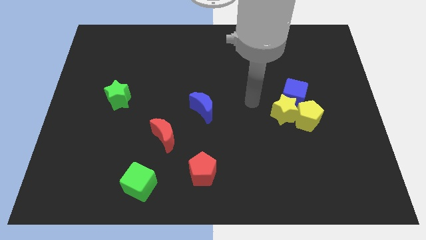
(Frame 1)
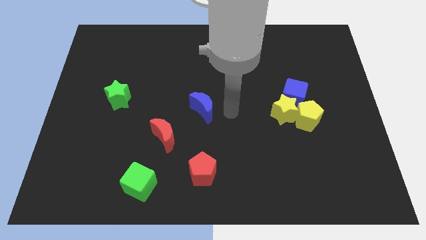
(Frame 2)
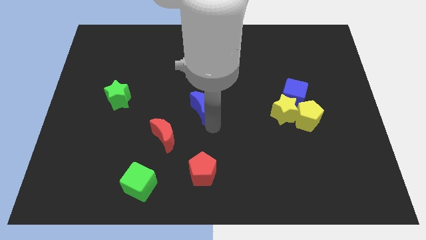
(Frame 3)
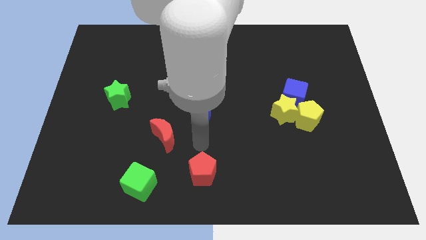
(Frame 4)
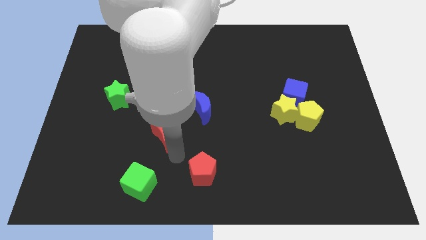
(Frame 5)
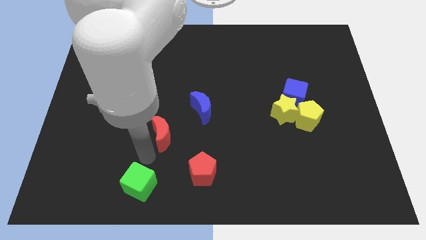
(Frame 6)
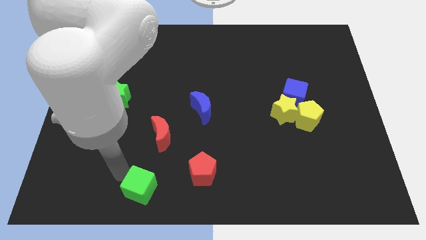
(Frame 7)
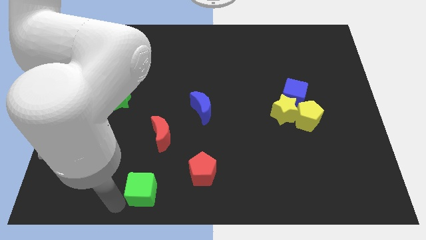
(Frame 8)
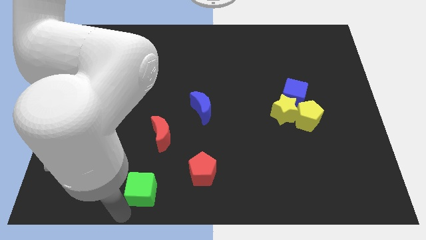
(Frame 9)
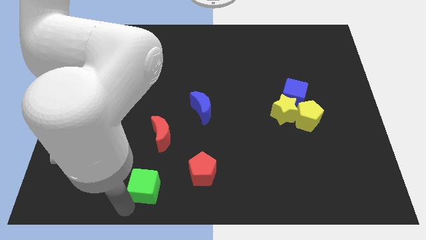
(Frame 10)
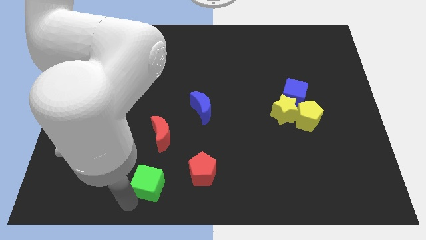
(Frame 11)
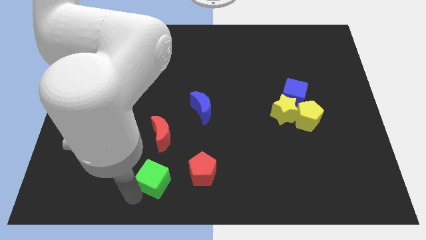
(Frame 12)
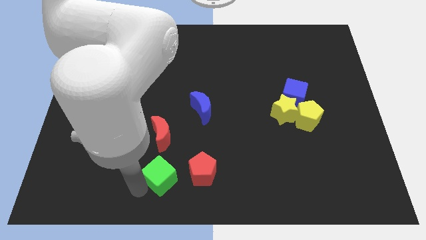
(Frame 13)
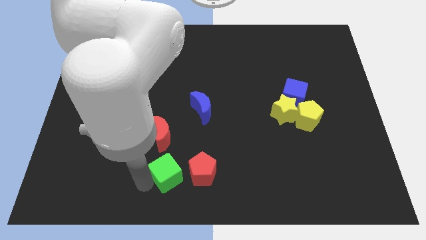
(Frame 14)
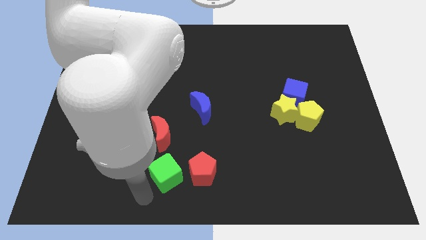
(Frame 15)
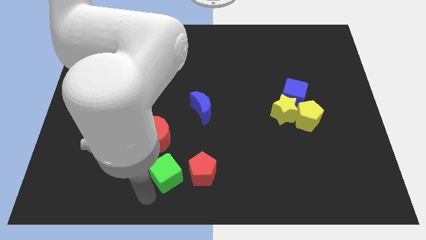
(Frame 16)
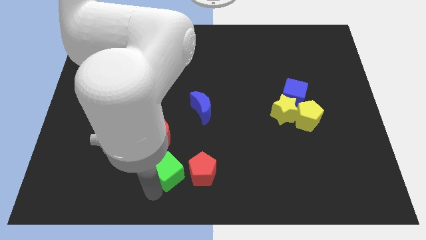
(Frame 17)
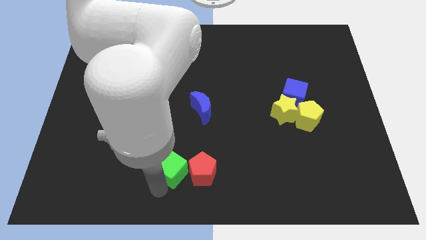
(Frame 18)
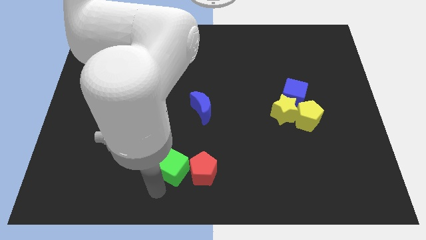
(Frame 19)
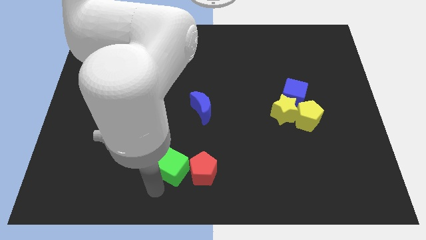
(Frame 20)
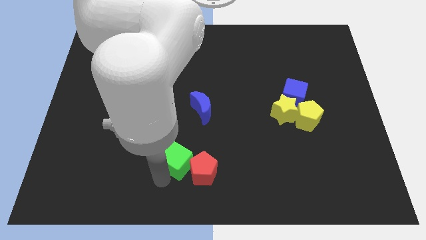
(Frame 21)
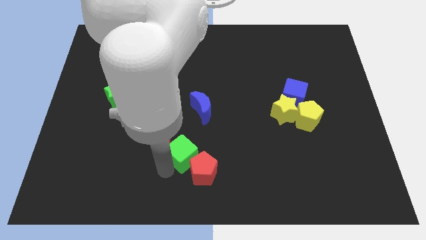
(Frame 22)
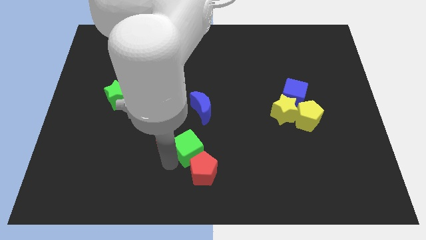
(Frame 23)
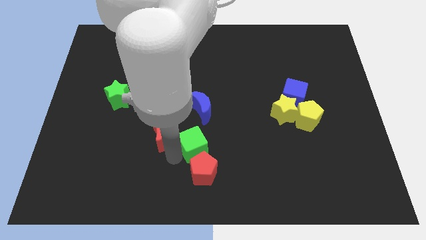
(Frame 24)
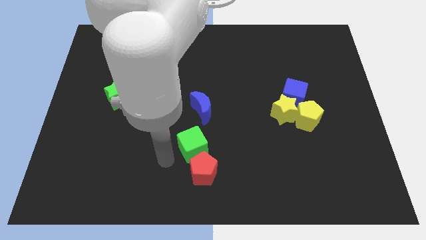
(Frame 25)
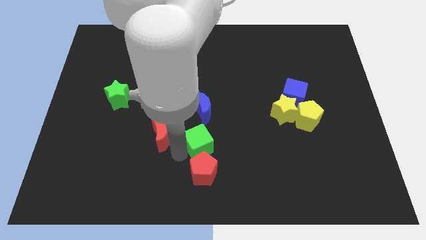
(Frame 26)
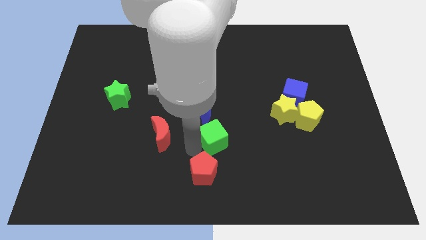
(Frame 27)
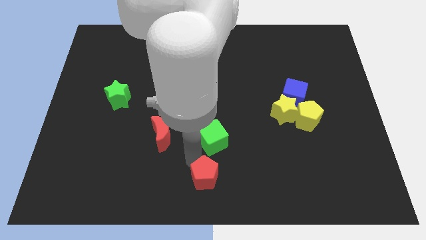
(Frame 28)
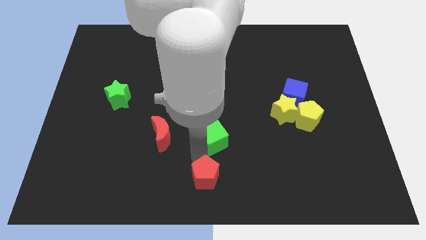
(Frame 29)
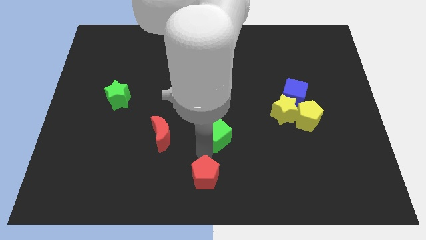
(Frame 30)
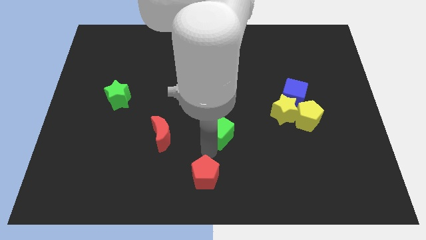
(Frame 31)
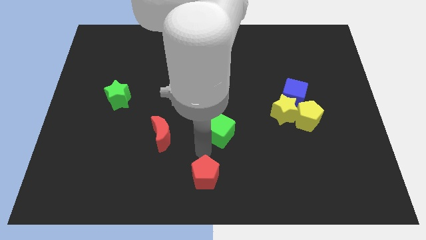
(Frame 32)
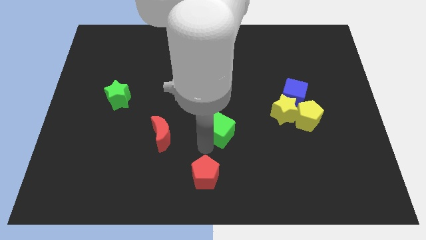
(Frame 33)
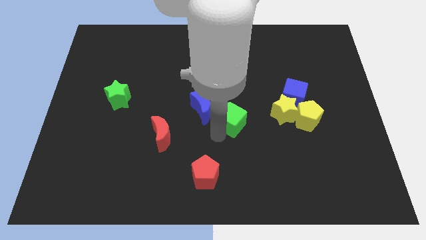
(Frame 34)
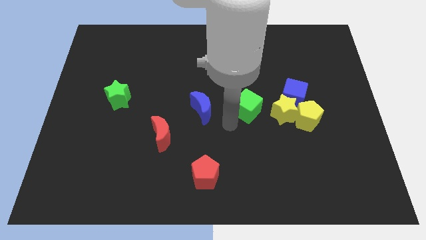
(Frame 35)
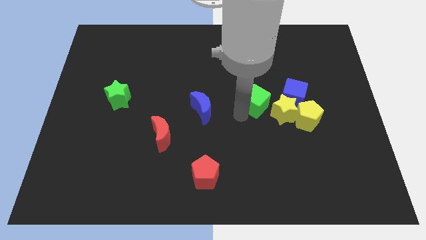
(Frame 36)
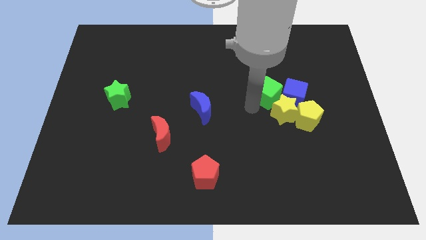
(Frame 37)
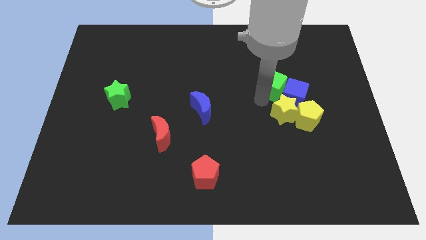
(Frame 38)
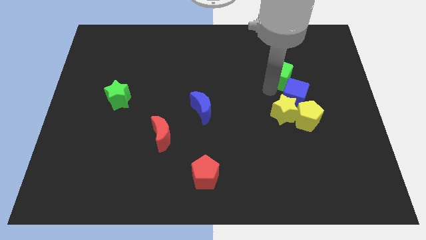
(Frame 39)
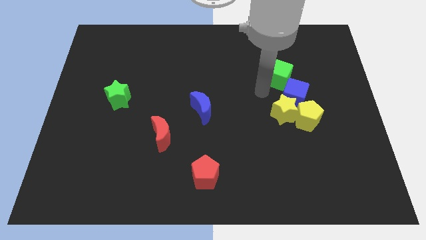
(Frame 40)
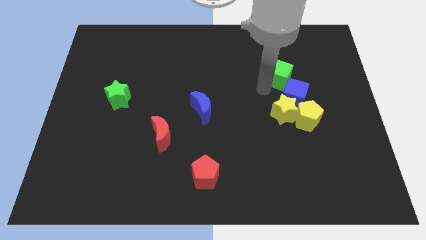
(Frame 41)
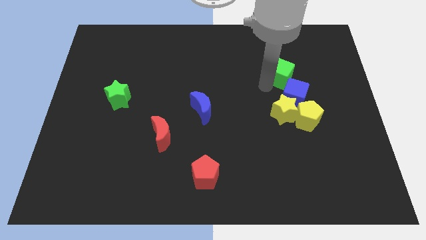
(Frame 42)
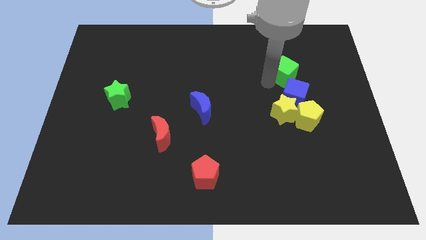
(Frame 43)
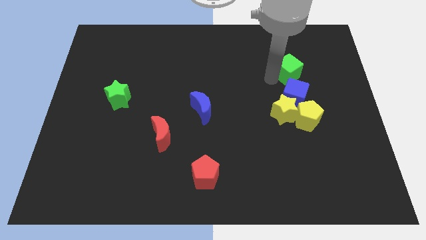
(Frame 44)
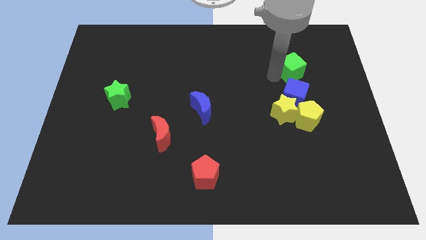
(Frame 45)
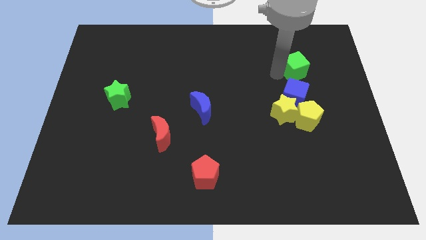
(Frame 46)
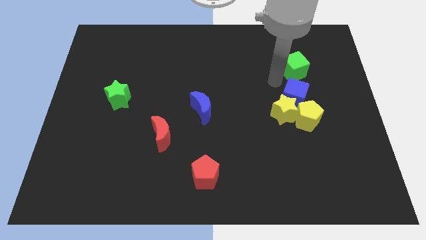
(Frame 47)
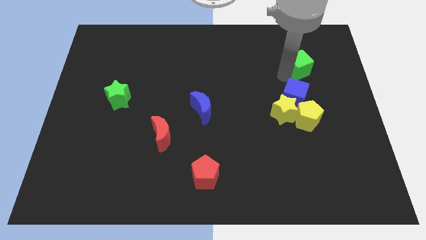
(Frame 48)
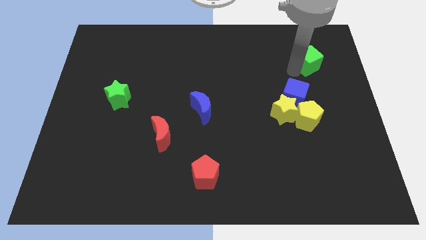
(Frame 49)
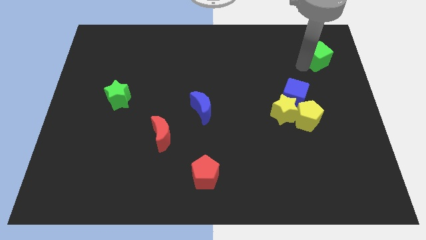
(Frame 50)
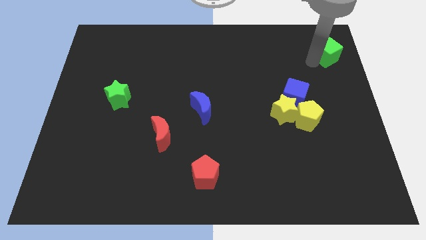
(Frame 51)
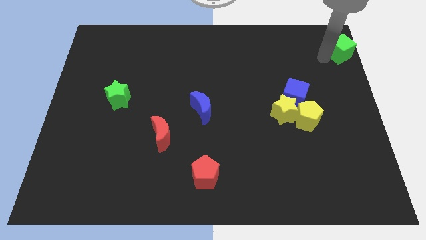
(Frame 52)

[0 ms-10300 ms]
push the green cube to the top right of the board
